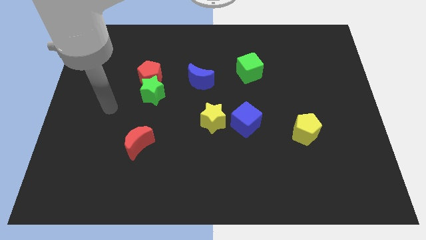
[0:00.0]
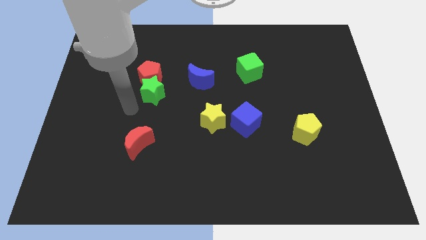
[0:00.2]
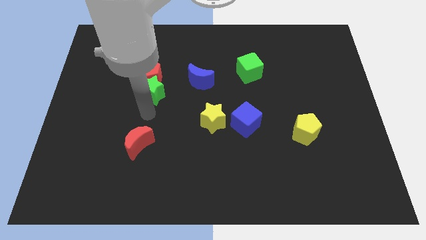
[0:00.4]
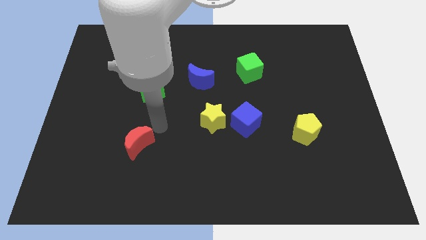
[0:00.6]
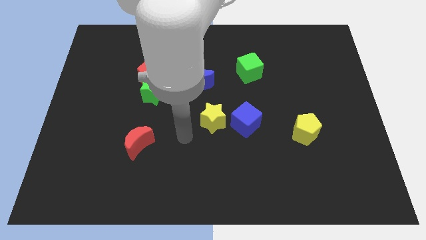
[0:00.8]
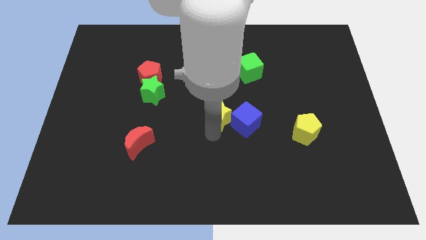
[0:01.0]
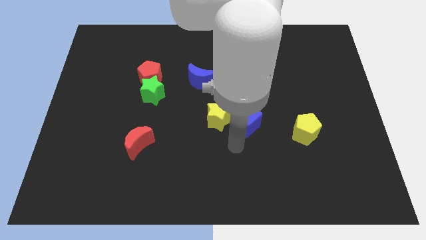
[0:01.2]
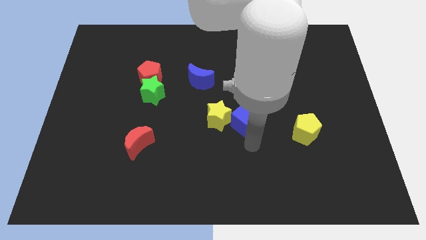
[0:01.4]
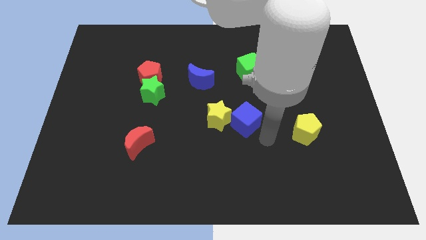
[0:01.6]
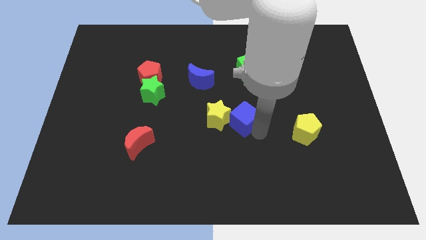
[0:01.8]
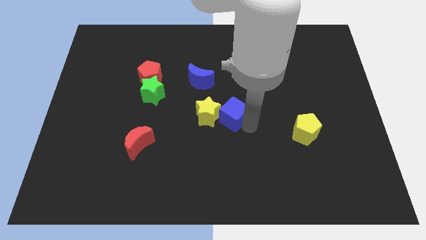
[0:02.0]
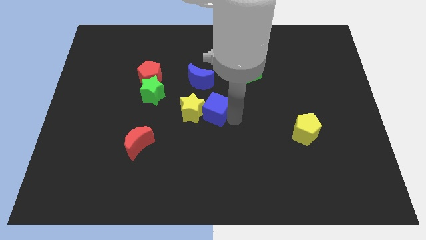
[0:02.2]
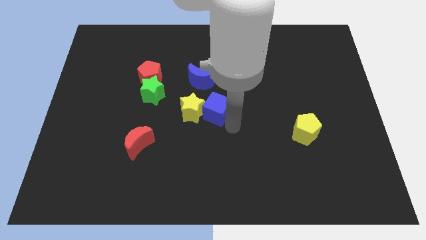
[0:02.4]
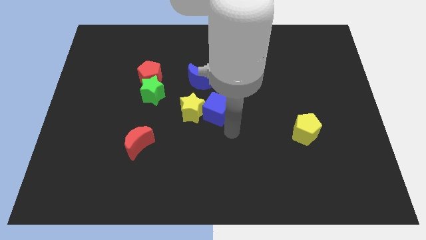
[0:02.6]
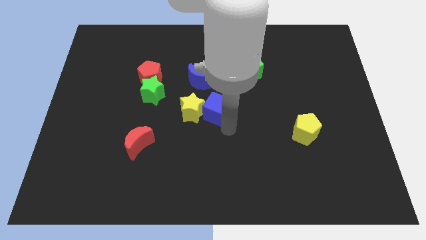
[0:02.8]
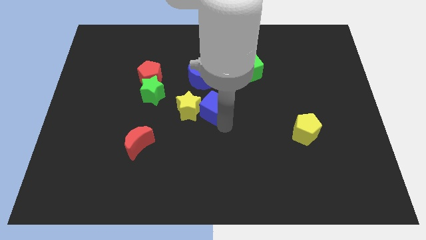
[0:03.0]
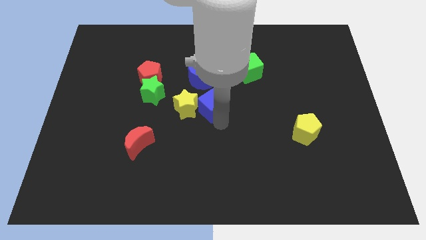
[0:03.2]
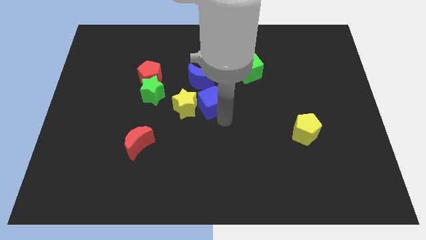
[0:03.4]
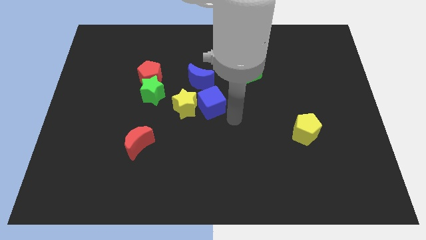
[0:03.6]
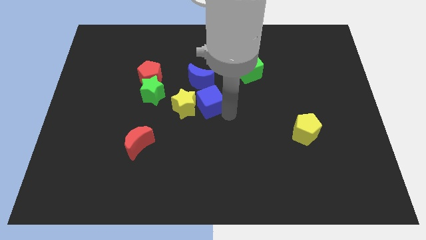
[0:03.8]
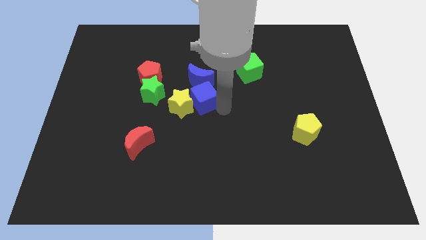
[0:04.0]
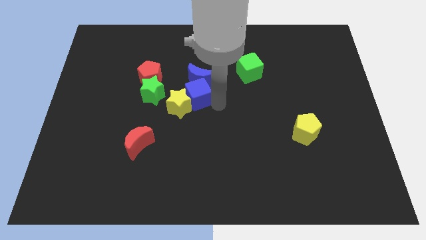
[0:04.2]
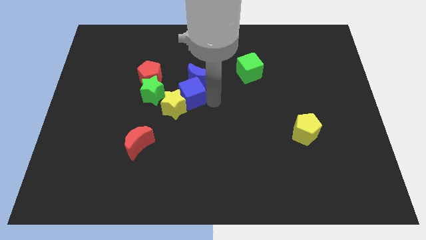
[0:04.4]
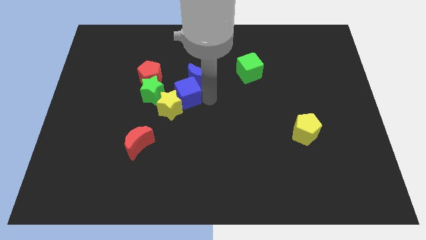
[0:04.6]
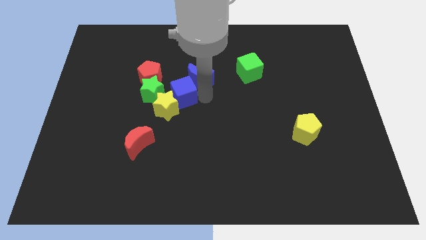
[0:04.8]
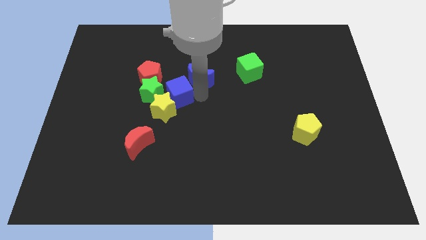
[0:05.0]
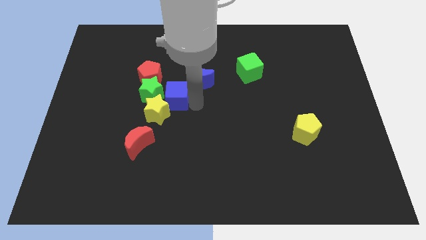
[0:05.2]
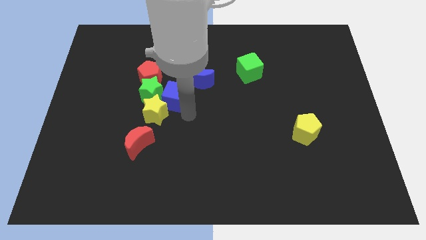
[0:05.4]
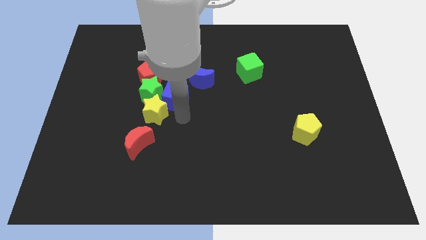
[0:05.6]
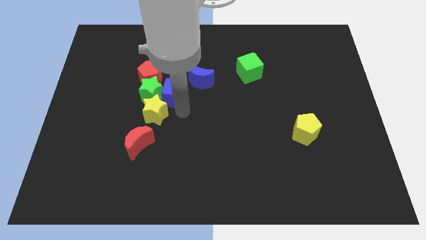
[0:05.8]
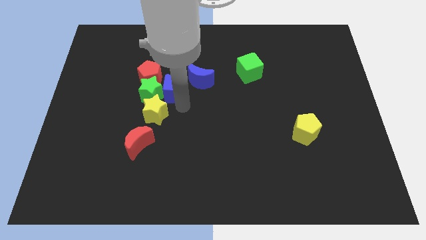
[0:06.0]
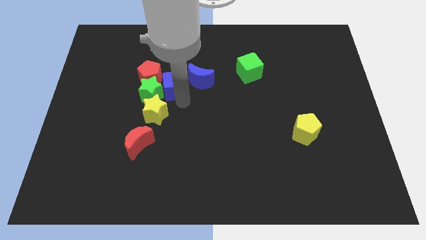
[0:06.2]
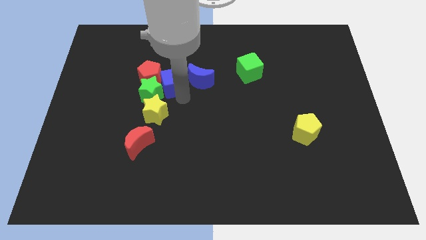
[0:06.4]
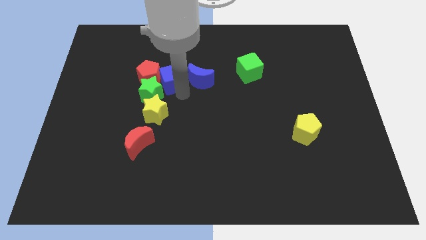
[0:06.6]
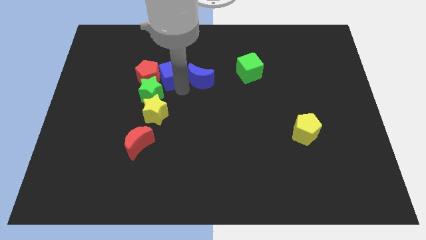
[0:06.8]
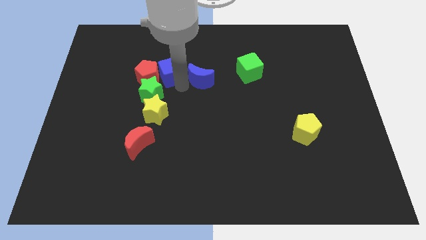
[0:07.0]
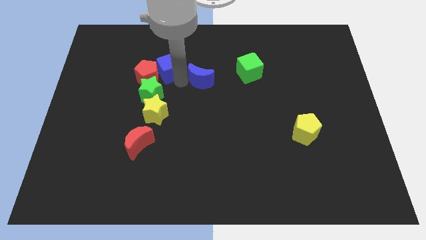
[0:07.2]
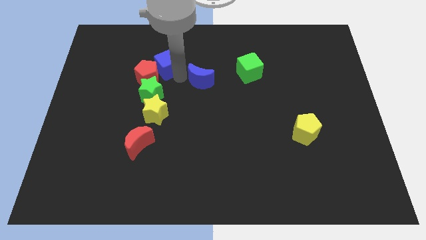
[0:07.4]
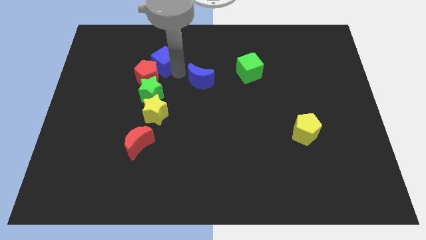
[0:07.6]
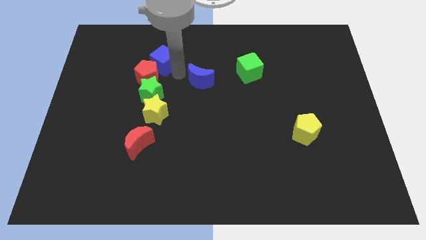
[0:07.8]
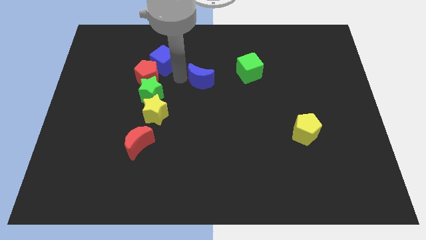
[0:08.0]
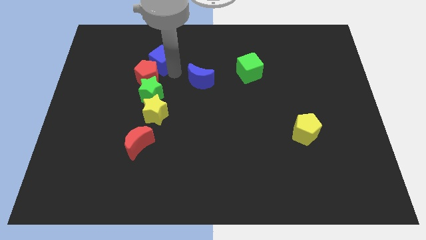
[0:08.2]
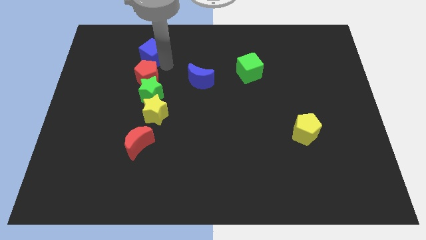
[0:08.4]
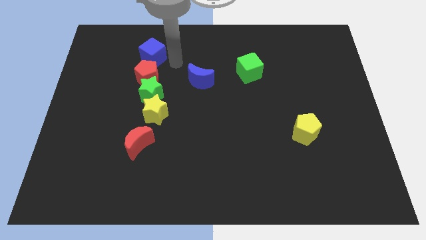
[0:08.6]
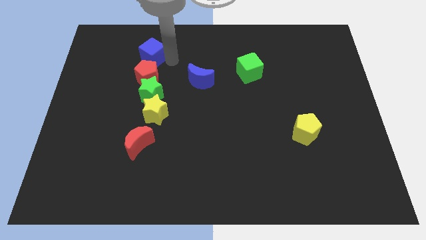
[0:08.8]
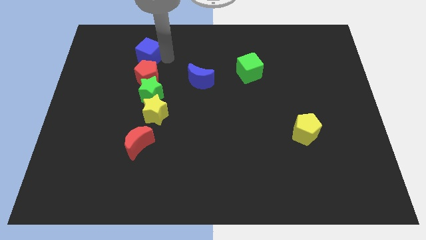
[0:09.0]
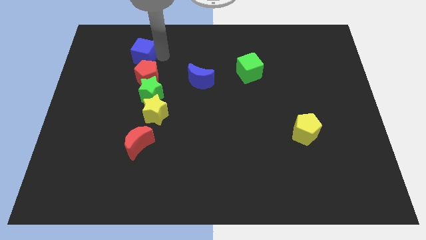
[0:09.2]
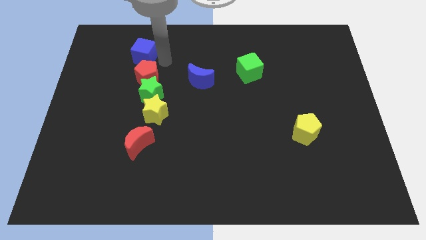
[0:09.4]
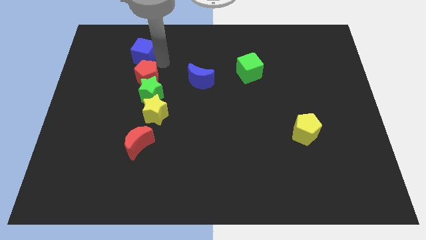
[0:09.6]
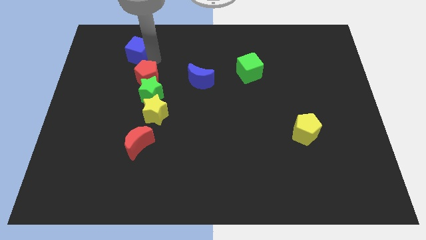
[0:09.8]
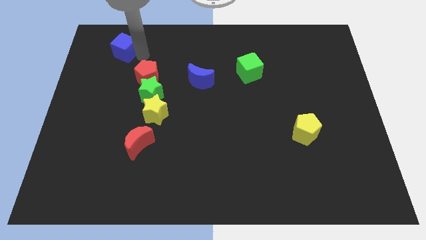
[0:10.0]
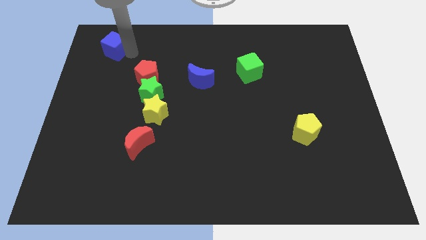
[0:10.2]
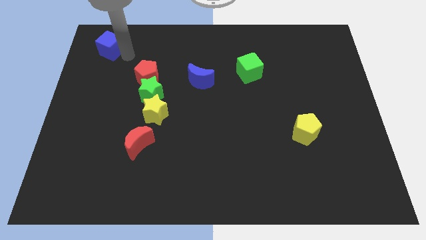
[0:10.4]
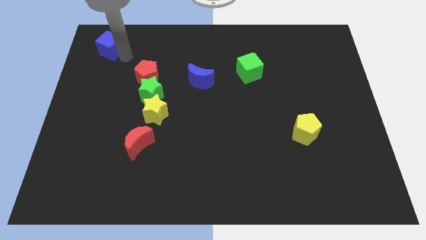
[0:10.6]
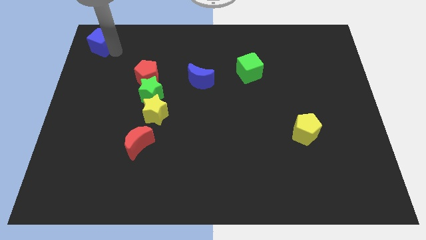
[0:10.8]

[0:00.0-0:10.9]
push the blue cube to the top left

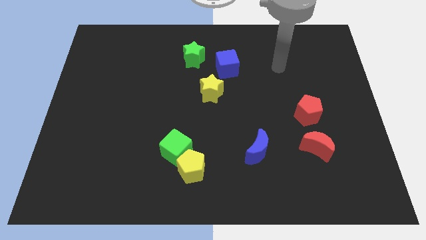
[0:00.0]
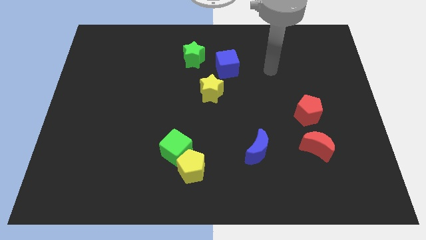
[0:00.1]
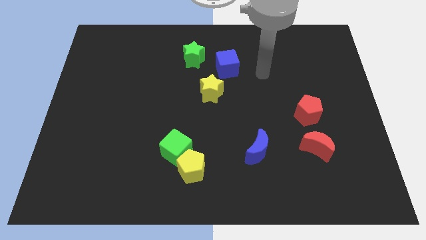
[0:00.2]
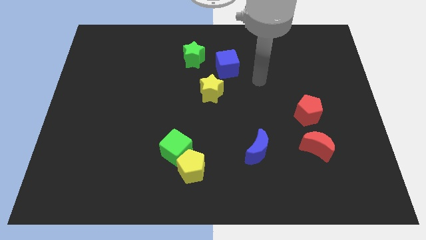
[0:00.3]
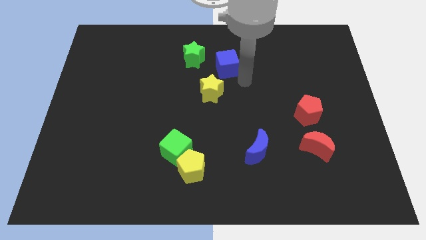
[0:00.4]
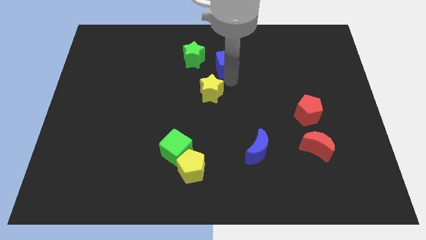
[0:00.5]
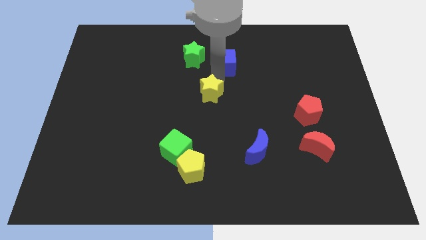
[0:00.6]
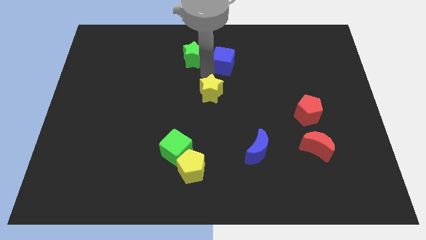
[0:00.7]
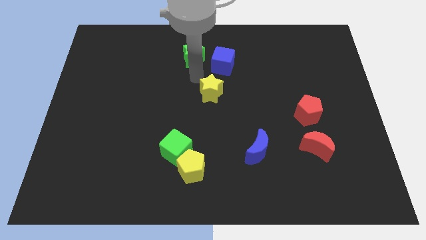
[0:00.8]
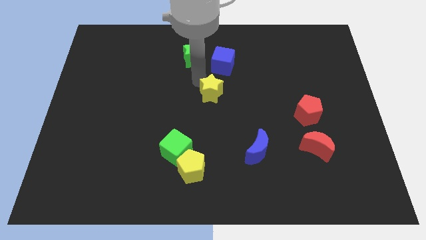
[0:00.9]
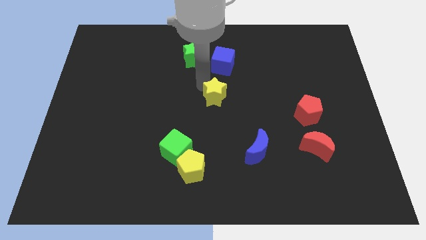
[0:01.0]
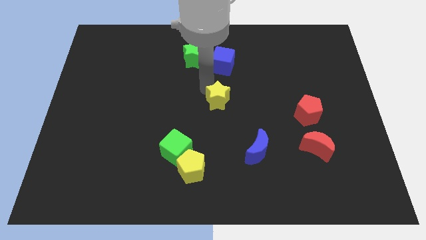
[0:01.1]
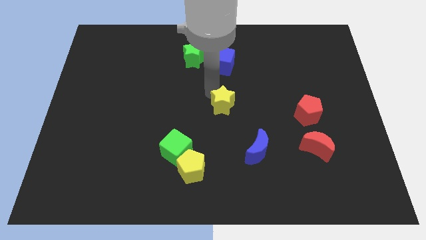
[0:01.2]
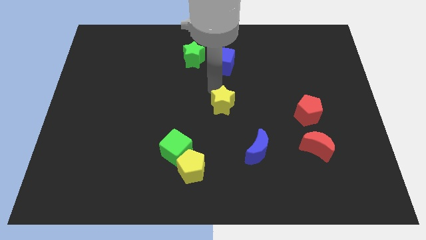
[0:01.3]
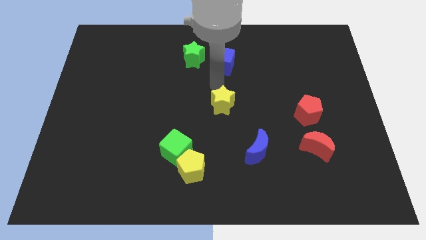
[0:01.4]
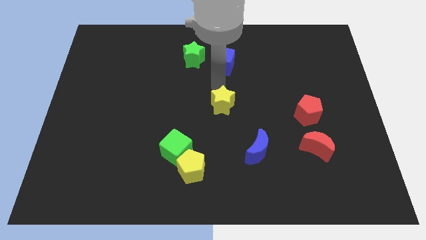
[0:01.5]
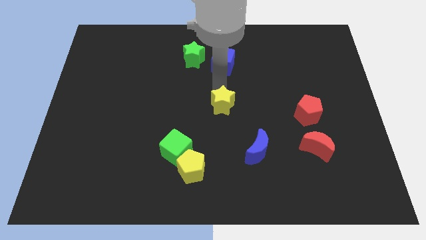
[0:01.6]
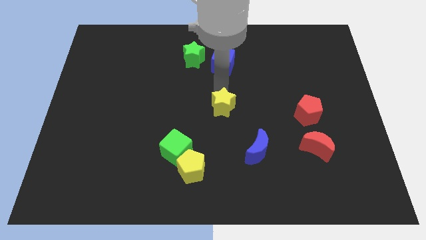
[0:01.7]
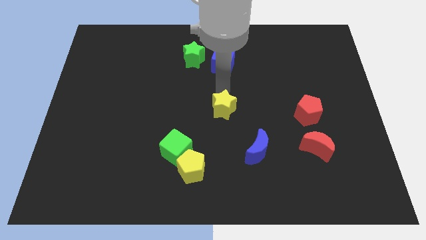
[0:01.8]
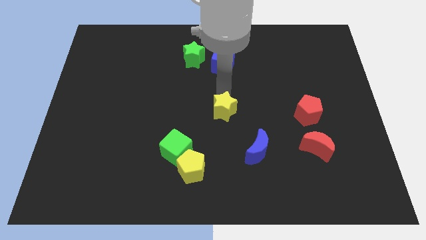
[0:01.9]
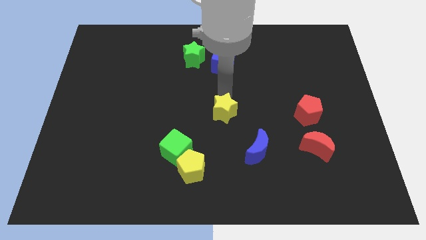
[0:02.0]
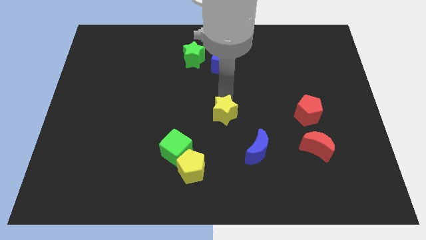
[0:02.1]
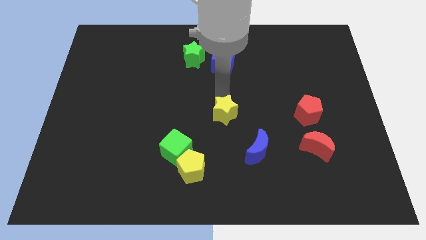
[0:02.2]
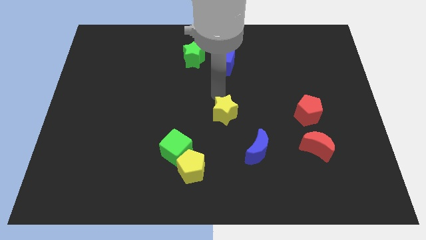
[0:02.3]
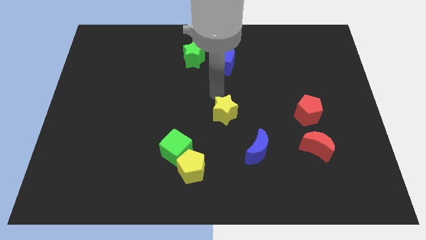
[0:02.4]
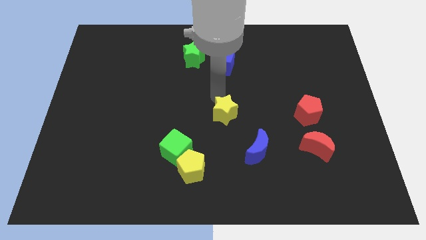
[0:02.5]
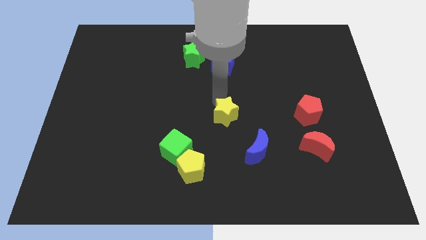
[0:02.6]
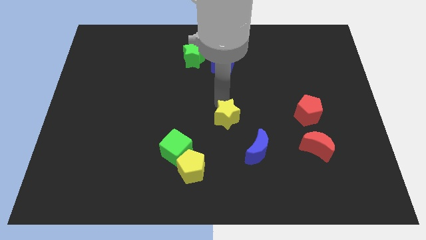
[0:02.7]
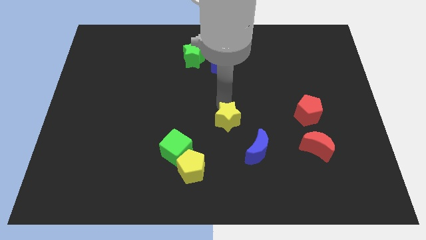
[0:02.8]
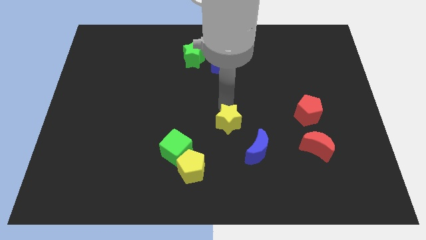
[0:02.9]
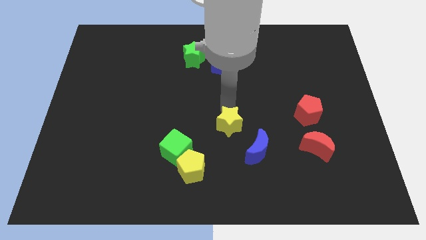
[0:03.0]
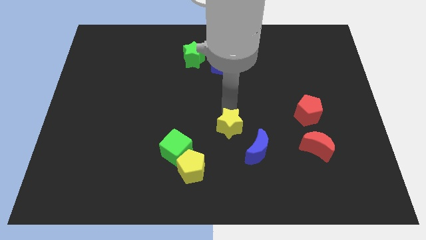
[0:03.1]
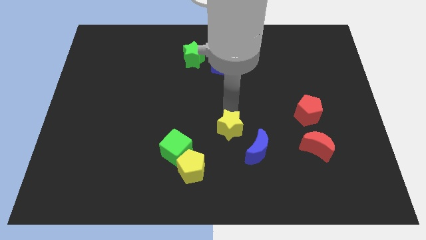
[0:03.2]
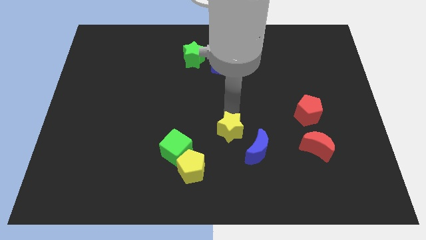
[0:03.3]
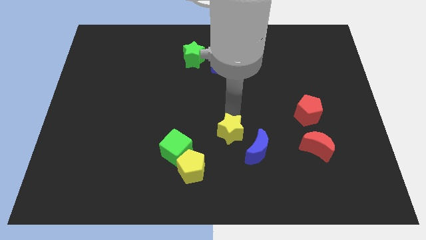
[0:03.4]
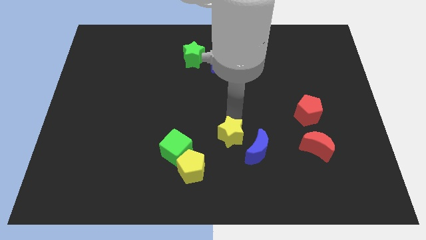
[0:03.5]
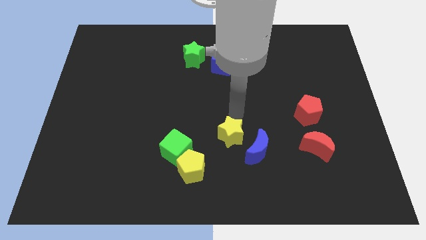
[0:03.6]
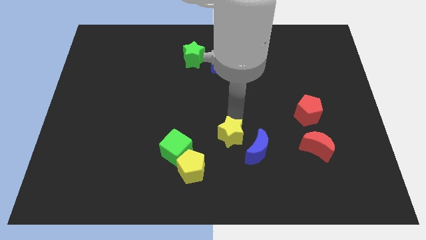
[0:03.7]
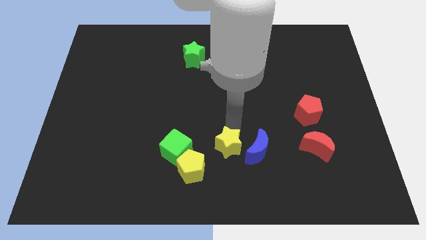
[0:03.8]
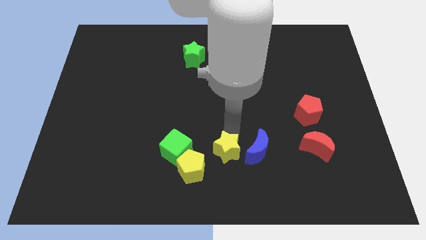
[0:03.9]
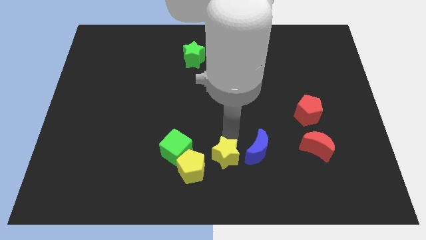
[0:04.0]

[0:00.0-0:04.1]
move the yellow star to the bottom
